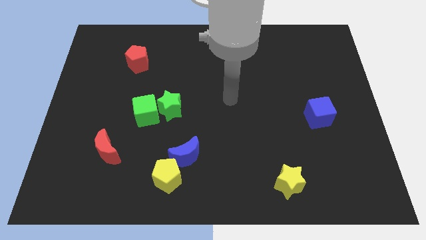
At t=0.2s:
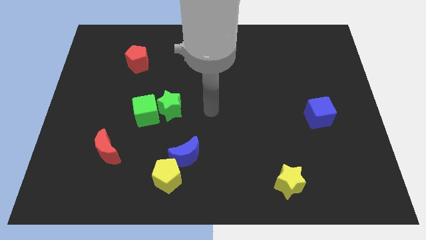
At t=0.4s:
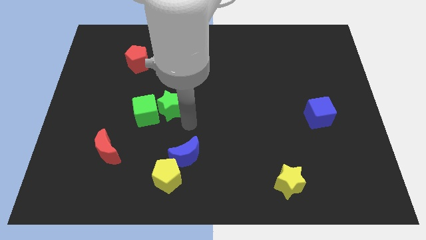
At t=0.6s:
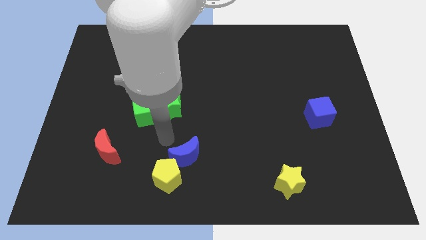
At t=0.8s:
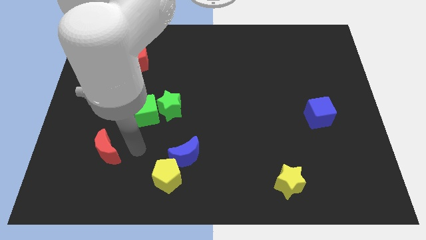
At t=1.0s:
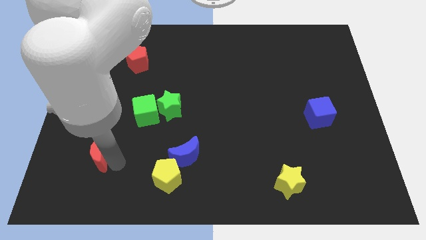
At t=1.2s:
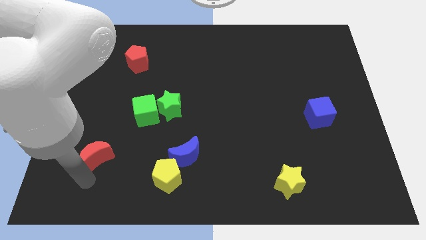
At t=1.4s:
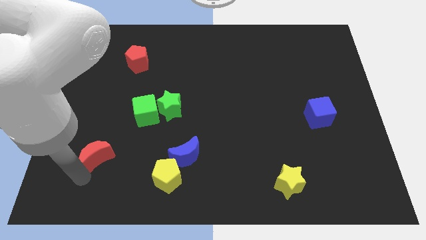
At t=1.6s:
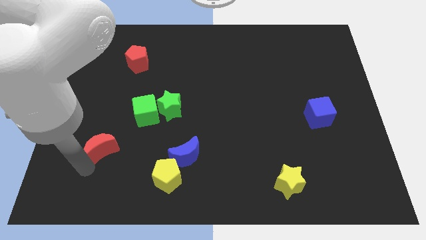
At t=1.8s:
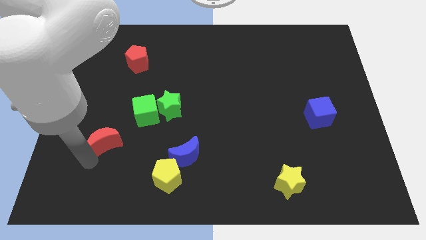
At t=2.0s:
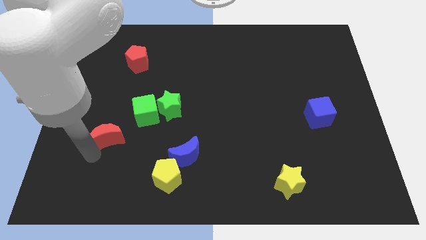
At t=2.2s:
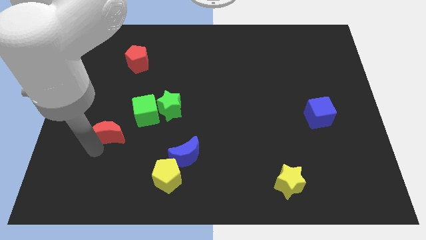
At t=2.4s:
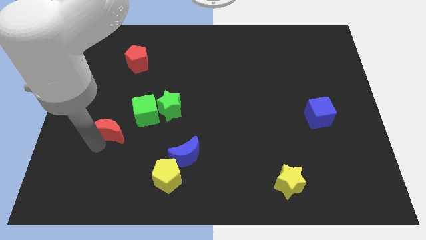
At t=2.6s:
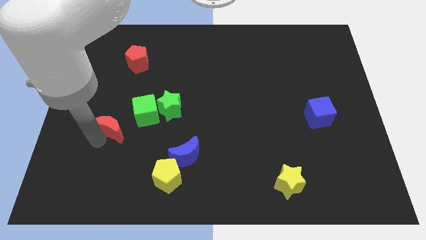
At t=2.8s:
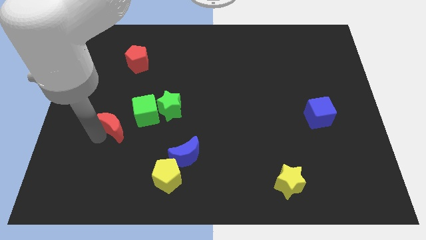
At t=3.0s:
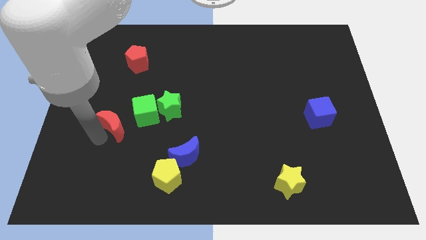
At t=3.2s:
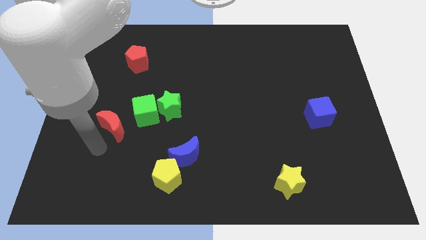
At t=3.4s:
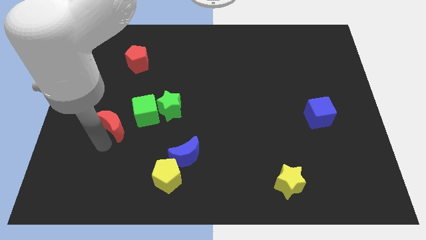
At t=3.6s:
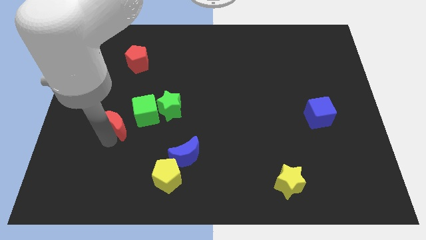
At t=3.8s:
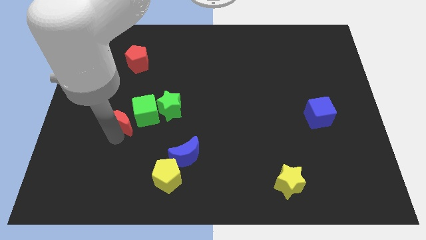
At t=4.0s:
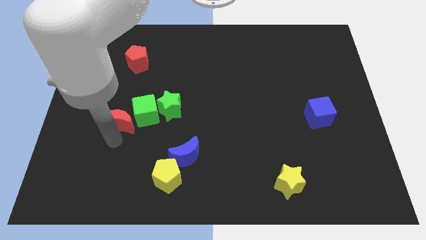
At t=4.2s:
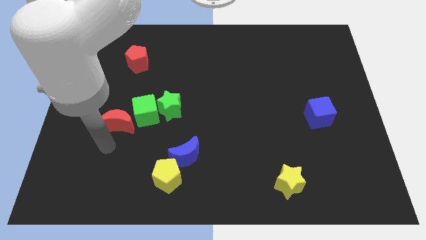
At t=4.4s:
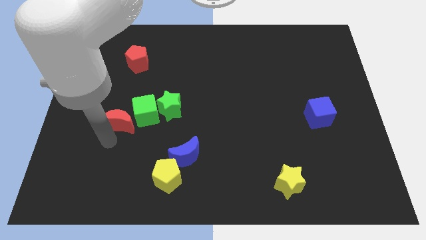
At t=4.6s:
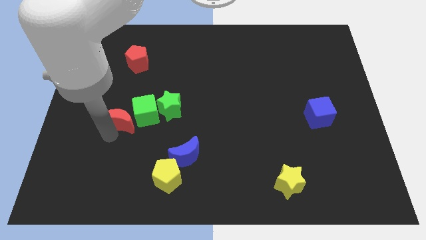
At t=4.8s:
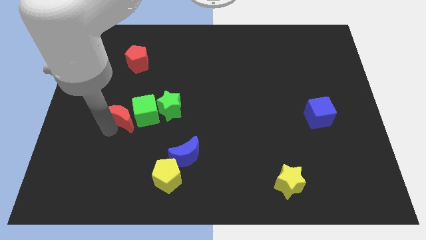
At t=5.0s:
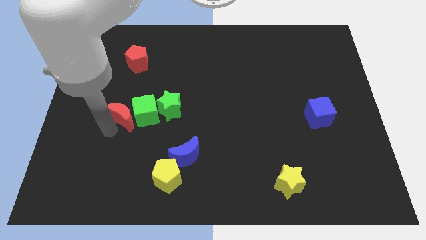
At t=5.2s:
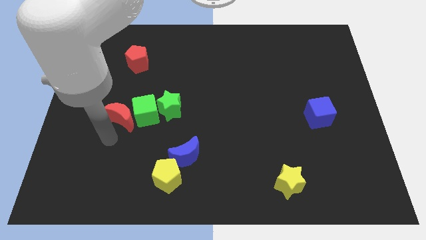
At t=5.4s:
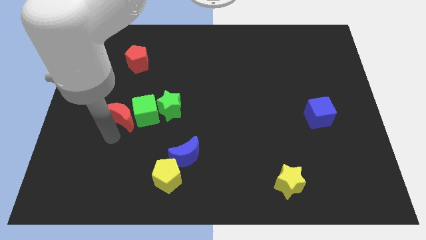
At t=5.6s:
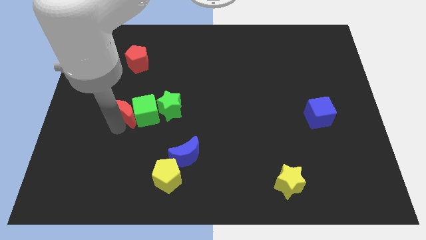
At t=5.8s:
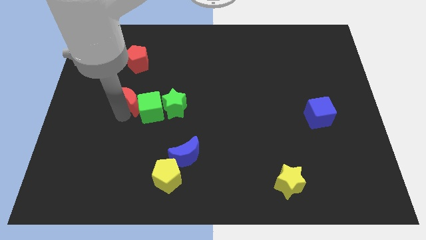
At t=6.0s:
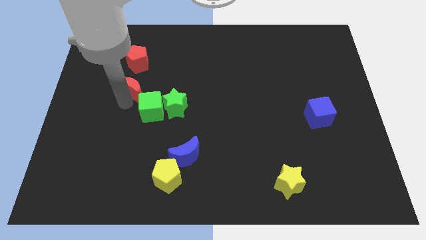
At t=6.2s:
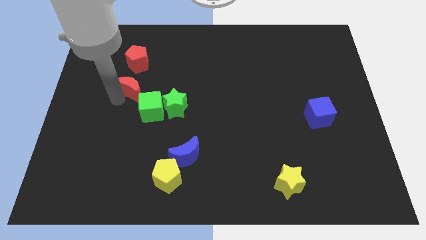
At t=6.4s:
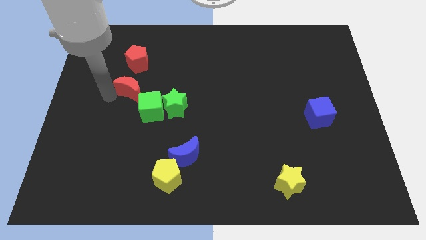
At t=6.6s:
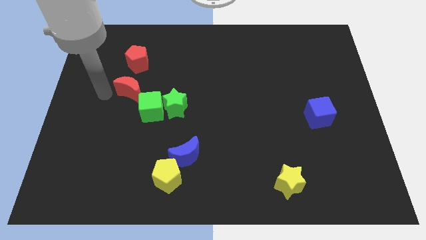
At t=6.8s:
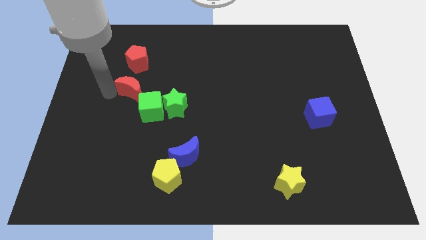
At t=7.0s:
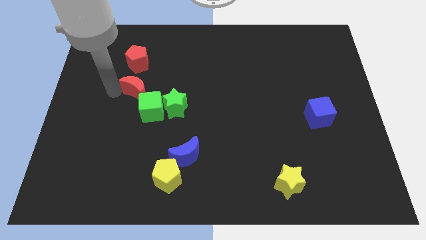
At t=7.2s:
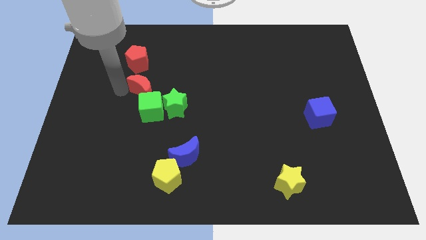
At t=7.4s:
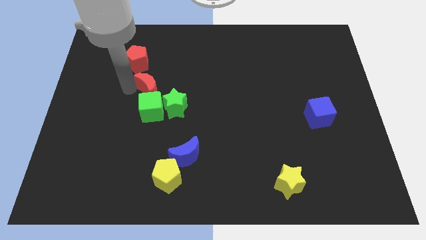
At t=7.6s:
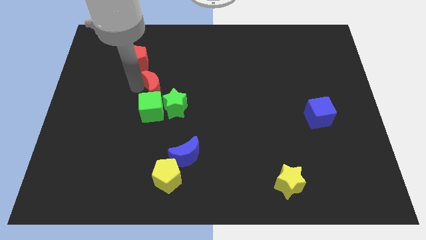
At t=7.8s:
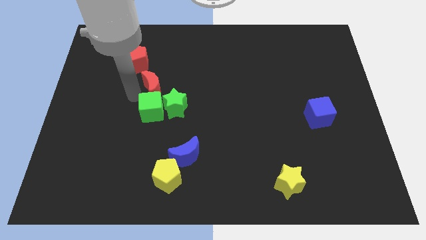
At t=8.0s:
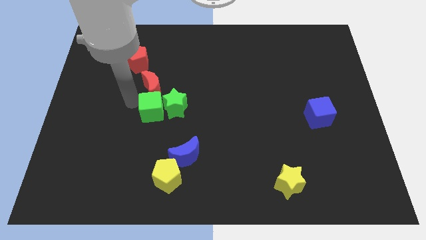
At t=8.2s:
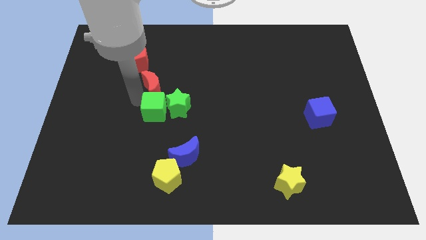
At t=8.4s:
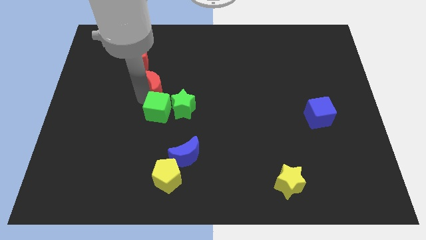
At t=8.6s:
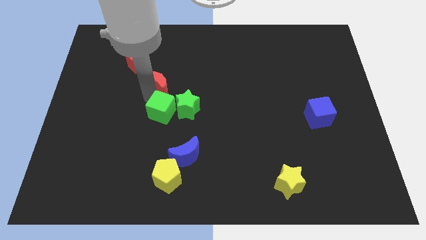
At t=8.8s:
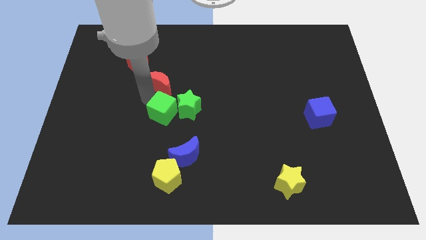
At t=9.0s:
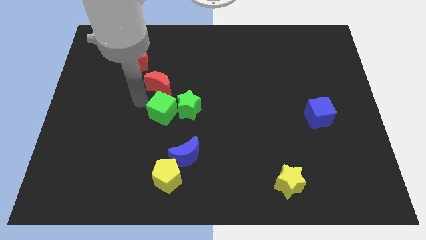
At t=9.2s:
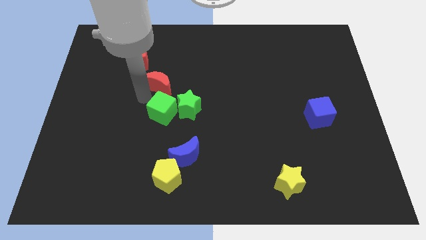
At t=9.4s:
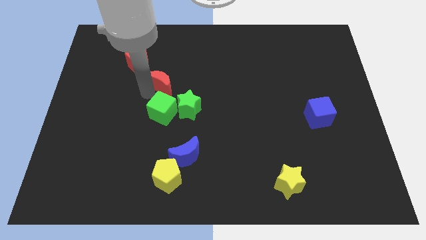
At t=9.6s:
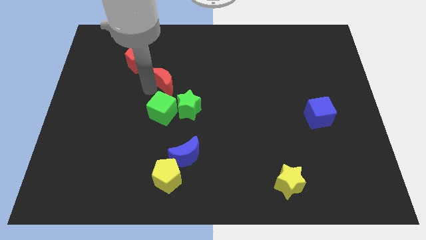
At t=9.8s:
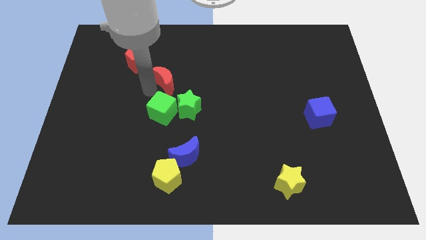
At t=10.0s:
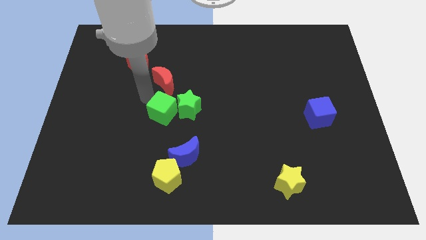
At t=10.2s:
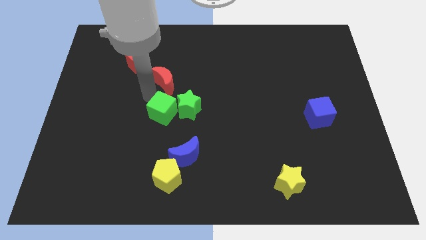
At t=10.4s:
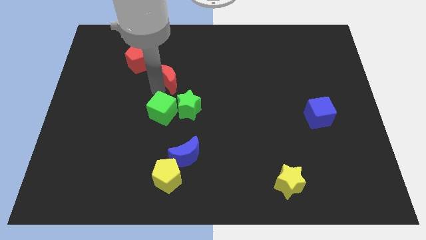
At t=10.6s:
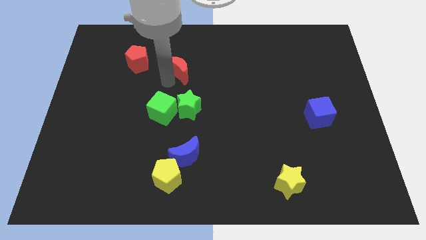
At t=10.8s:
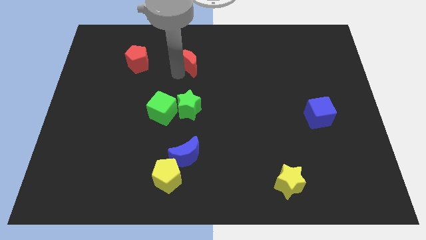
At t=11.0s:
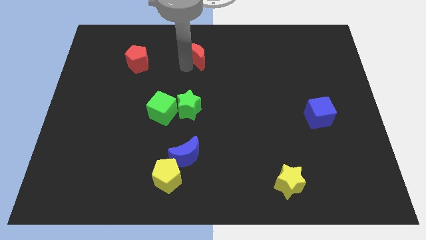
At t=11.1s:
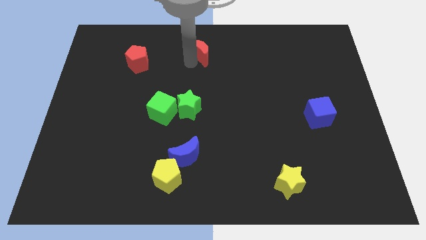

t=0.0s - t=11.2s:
move the red moon to the towards your base

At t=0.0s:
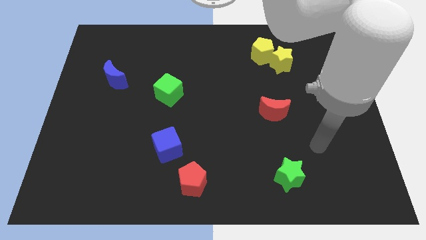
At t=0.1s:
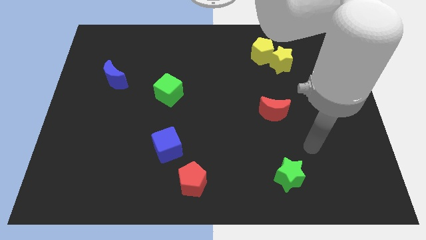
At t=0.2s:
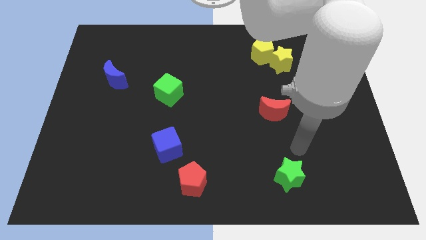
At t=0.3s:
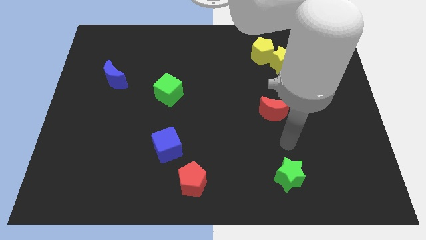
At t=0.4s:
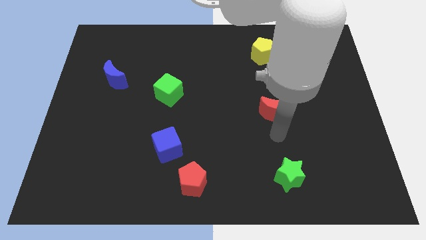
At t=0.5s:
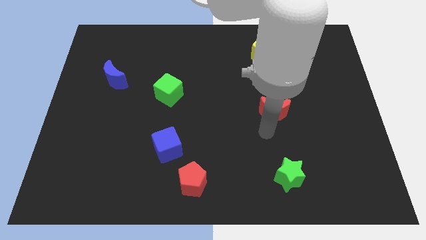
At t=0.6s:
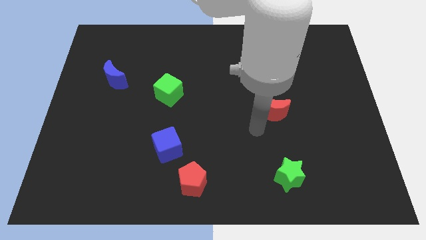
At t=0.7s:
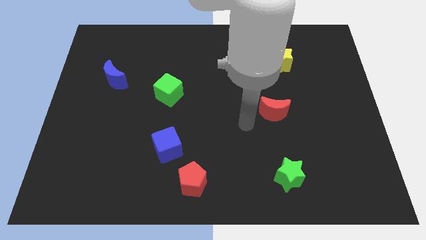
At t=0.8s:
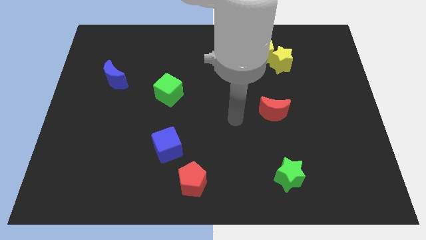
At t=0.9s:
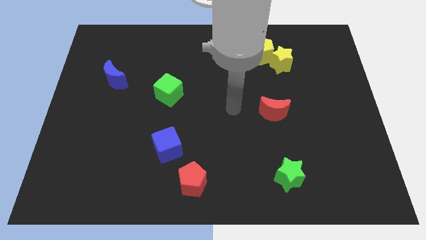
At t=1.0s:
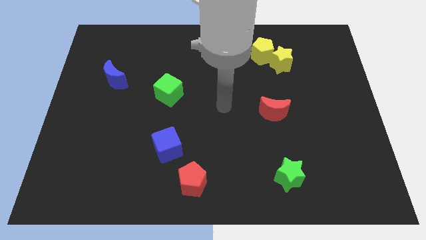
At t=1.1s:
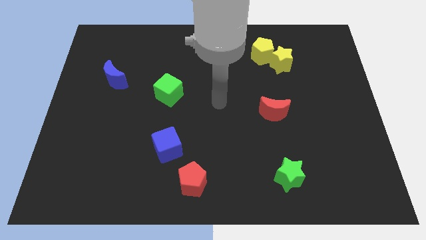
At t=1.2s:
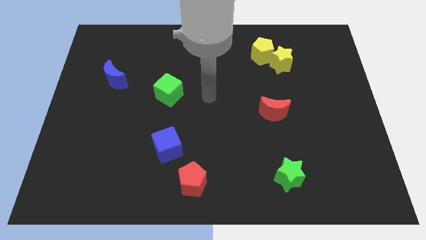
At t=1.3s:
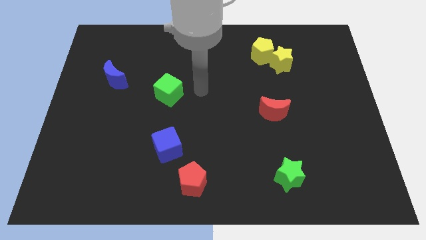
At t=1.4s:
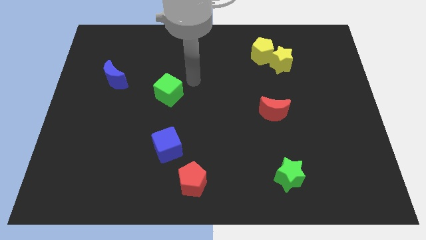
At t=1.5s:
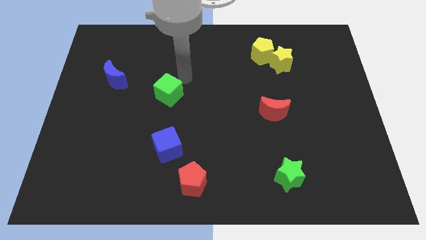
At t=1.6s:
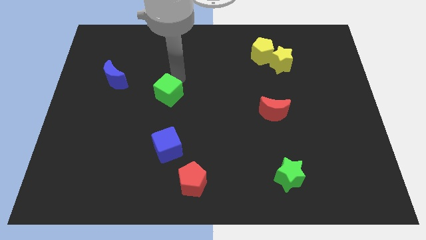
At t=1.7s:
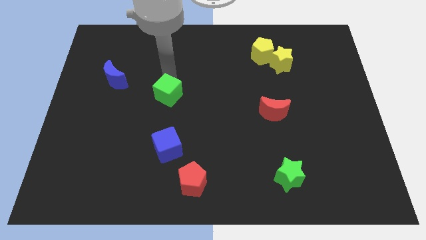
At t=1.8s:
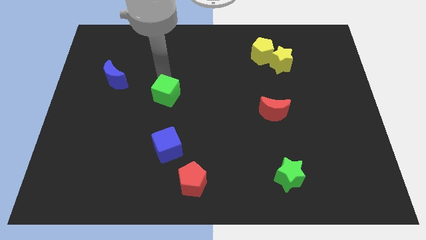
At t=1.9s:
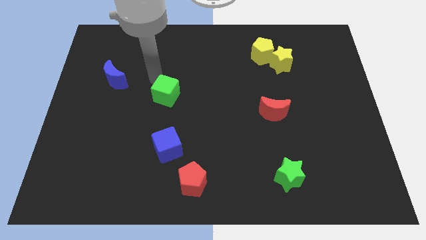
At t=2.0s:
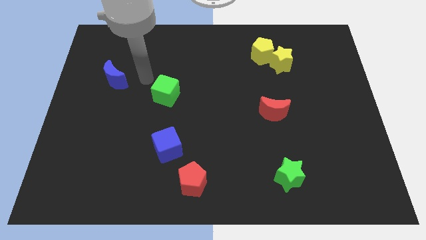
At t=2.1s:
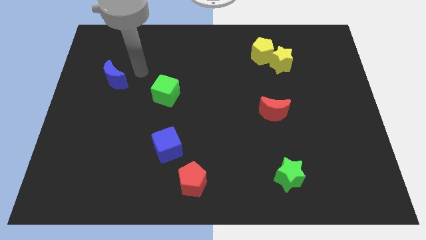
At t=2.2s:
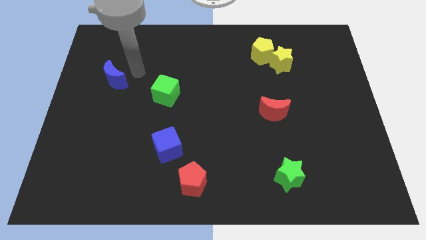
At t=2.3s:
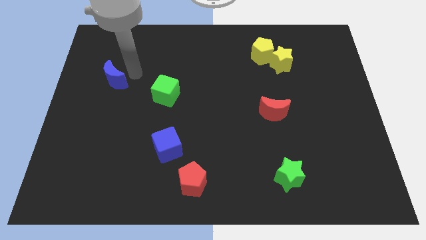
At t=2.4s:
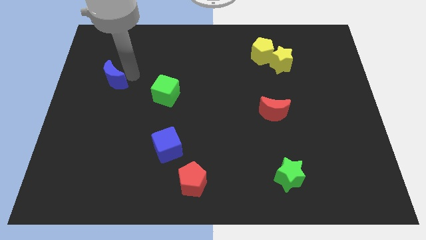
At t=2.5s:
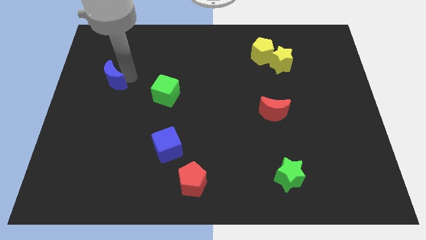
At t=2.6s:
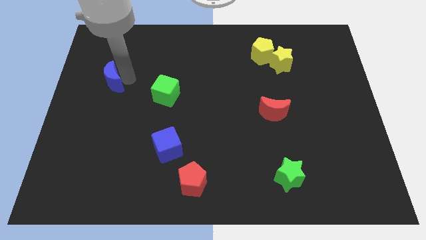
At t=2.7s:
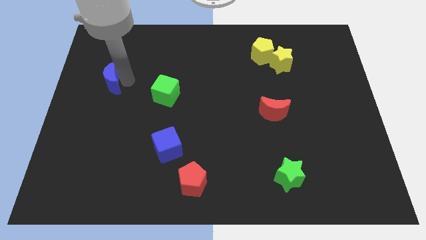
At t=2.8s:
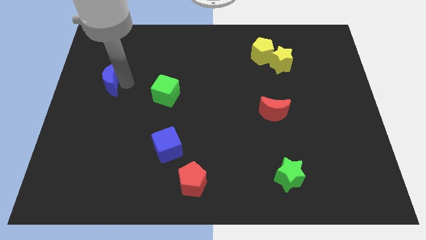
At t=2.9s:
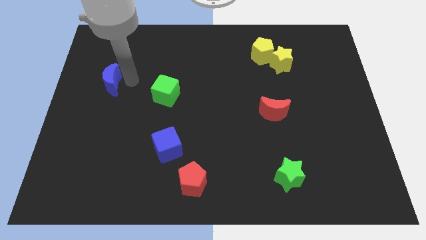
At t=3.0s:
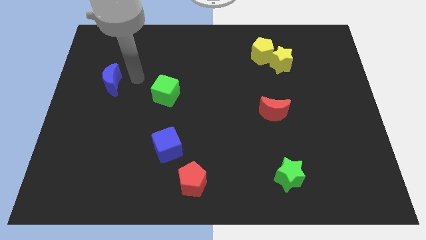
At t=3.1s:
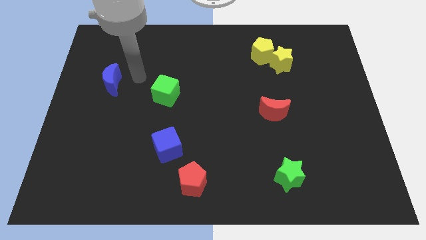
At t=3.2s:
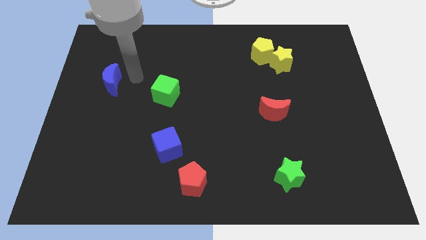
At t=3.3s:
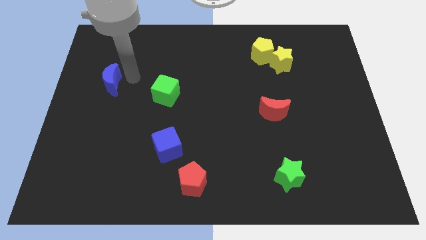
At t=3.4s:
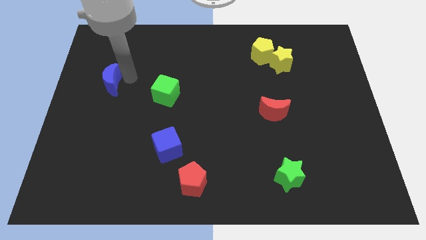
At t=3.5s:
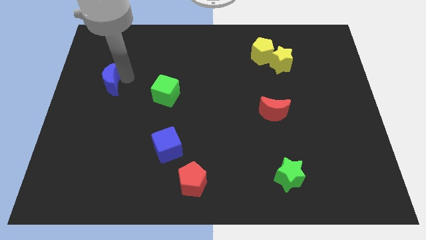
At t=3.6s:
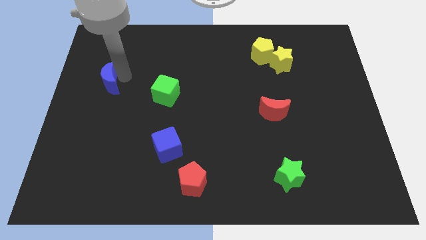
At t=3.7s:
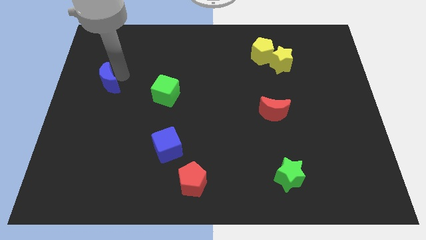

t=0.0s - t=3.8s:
slide the blue moon to the left side
